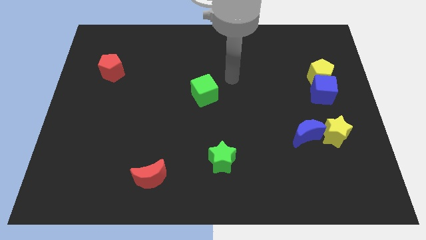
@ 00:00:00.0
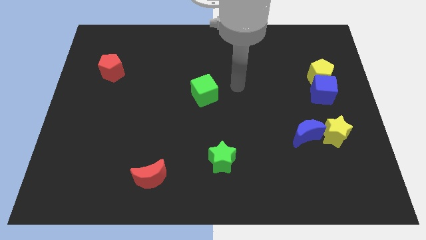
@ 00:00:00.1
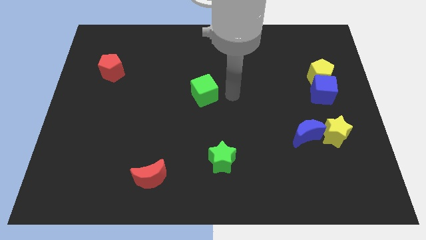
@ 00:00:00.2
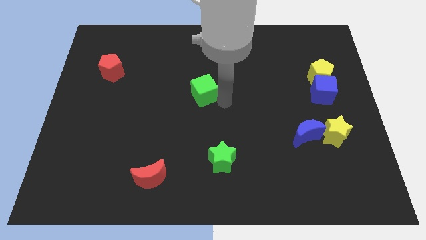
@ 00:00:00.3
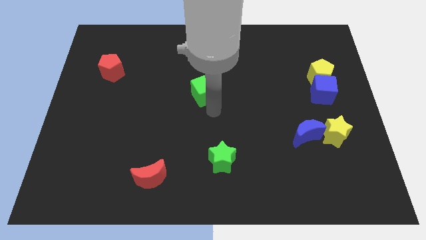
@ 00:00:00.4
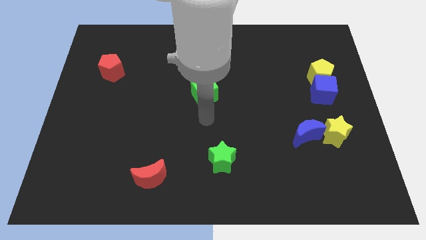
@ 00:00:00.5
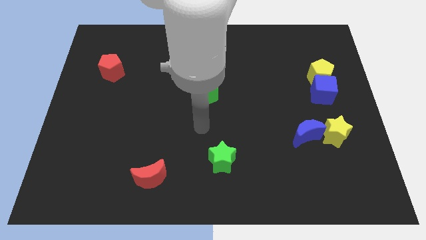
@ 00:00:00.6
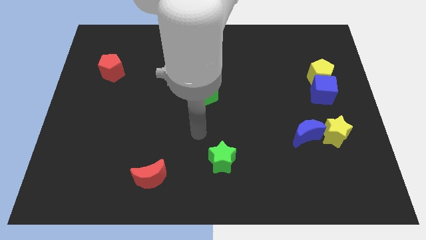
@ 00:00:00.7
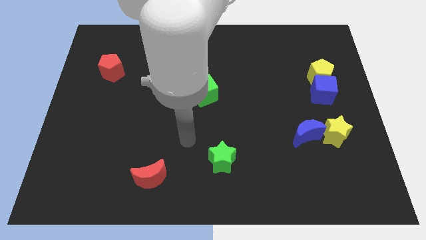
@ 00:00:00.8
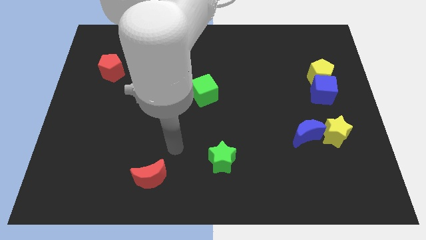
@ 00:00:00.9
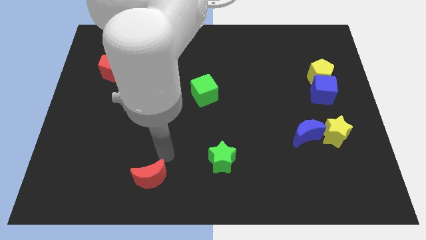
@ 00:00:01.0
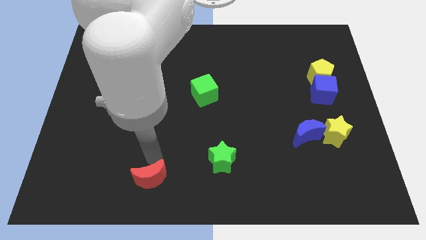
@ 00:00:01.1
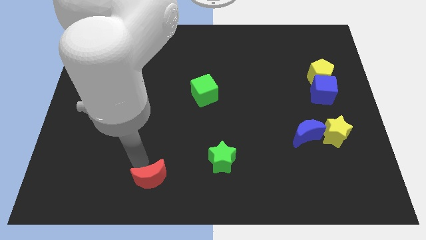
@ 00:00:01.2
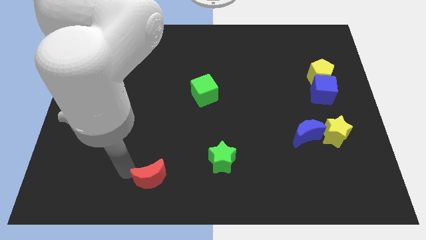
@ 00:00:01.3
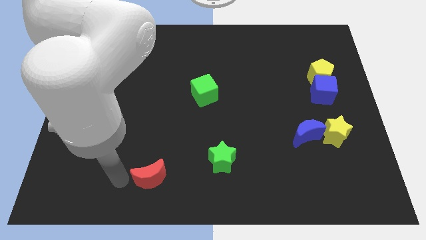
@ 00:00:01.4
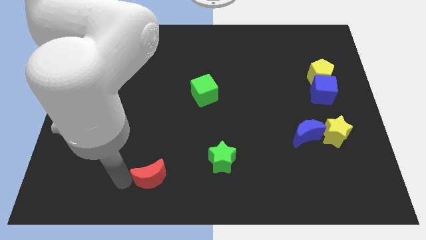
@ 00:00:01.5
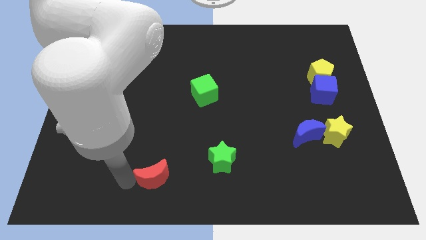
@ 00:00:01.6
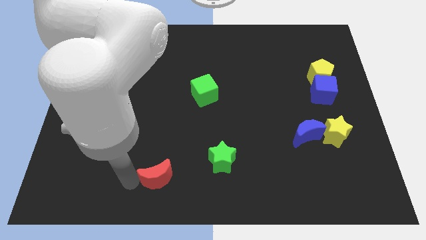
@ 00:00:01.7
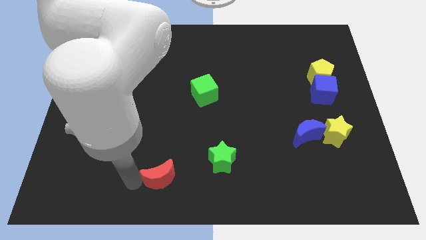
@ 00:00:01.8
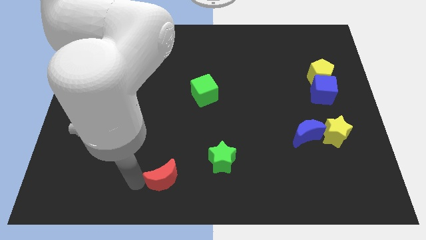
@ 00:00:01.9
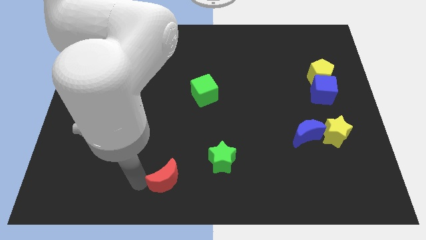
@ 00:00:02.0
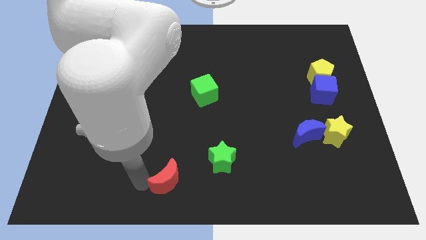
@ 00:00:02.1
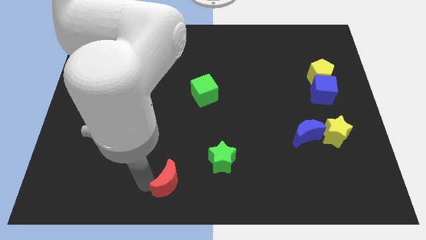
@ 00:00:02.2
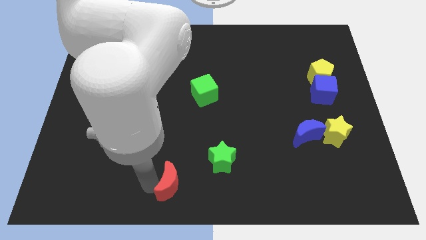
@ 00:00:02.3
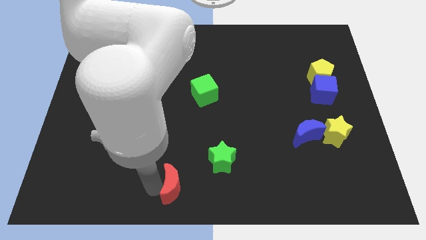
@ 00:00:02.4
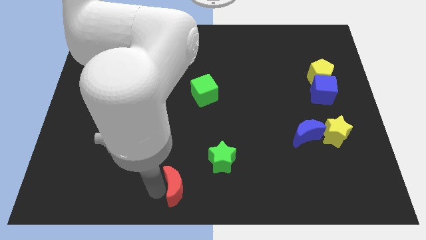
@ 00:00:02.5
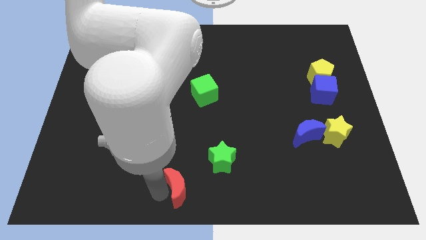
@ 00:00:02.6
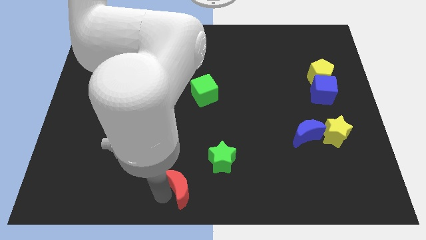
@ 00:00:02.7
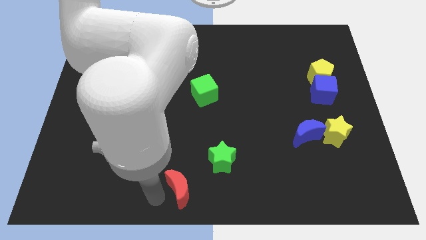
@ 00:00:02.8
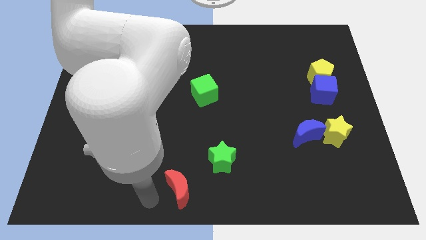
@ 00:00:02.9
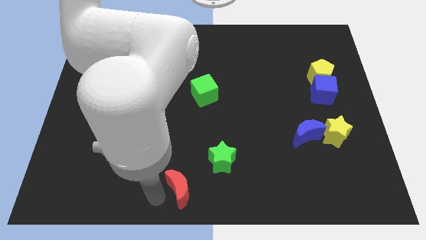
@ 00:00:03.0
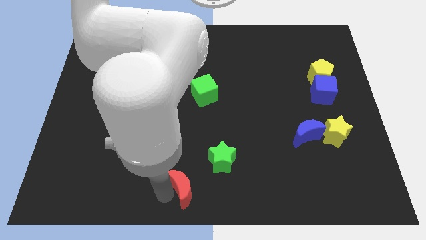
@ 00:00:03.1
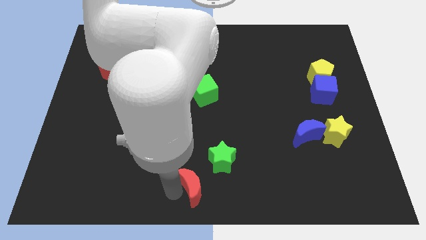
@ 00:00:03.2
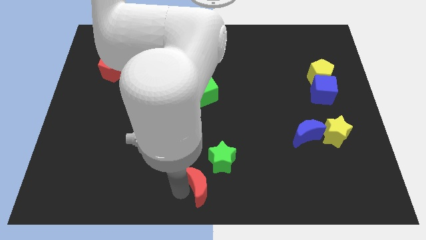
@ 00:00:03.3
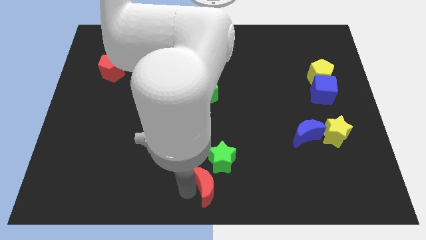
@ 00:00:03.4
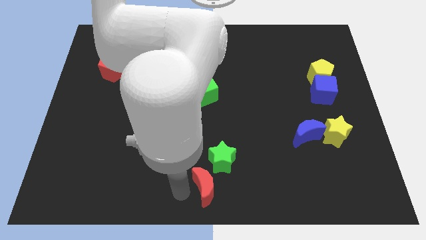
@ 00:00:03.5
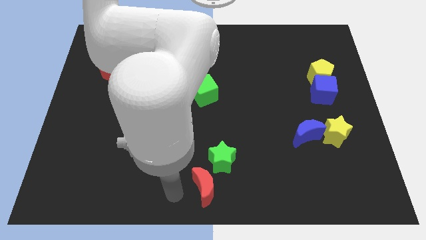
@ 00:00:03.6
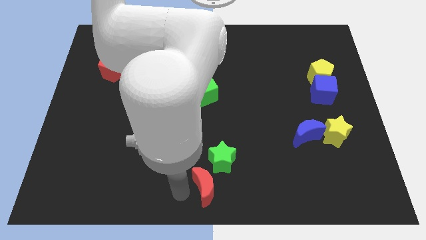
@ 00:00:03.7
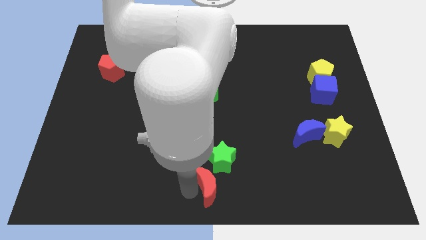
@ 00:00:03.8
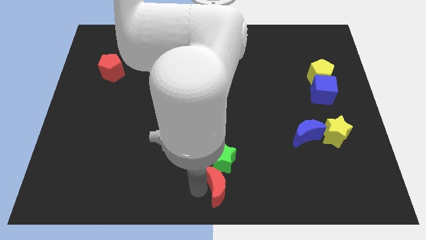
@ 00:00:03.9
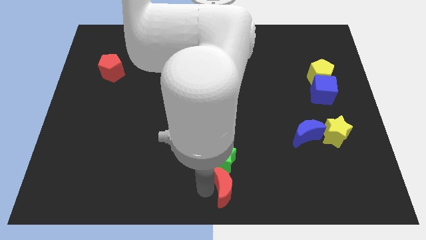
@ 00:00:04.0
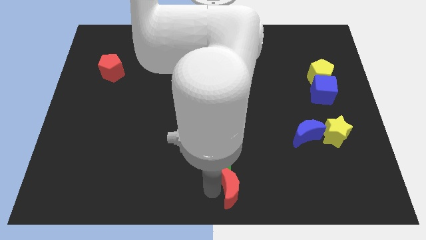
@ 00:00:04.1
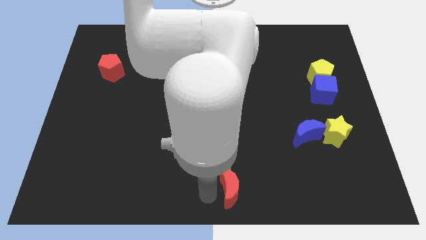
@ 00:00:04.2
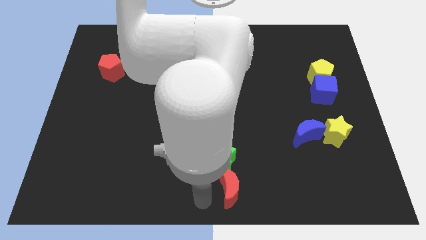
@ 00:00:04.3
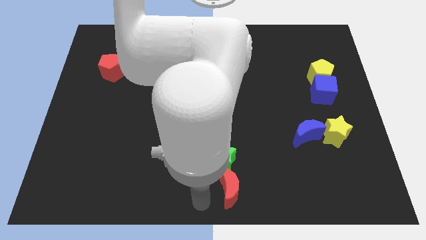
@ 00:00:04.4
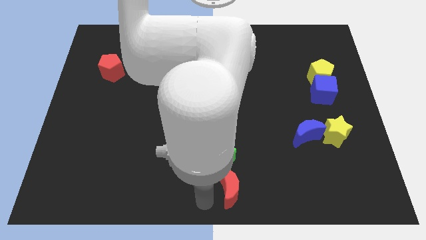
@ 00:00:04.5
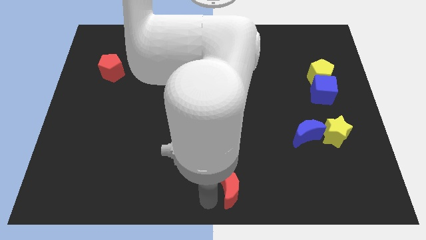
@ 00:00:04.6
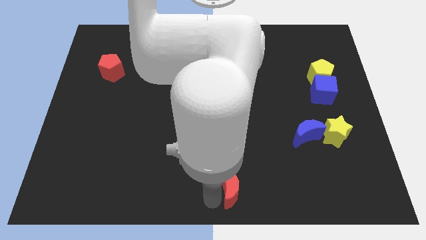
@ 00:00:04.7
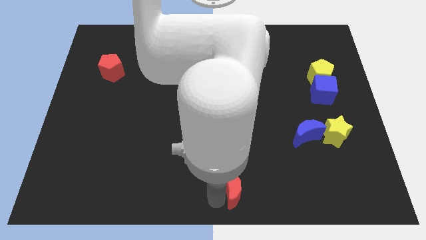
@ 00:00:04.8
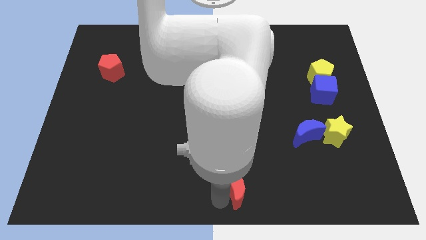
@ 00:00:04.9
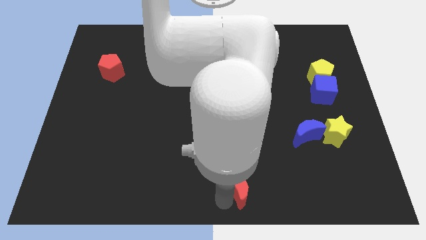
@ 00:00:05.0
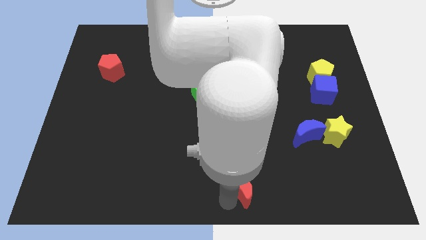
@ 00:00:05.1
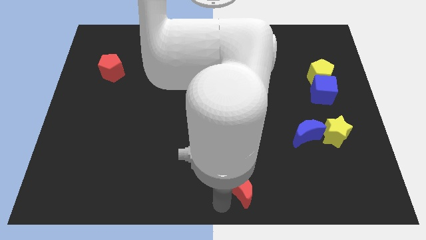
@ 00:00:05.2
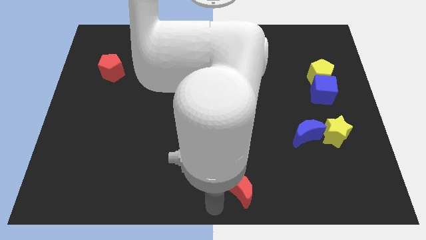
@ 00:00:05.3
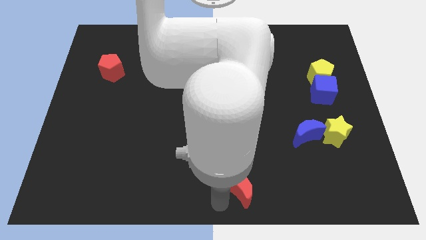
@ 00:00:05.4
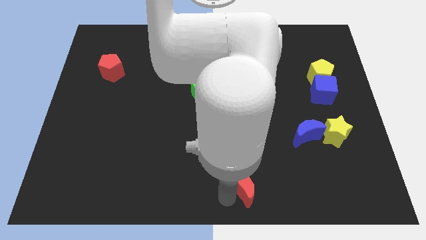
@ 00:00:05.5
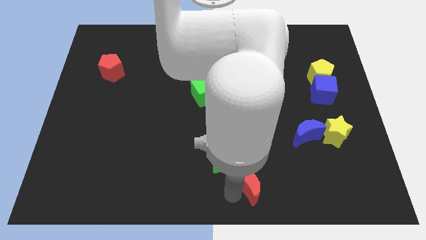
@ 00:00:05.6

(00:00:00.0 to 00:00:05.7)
move the red moon to the right

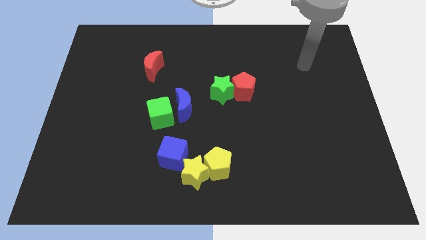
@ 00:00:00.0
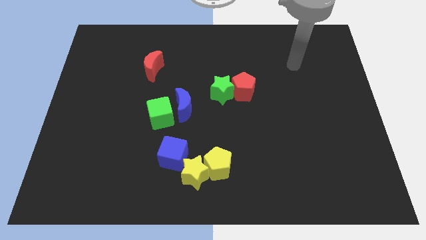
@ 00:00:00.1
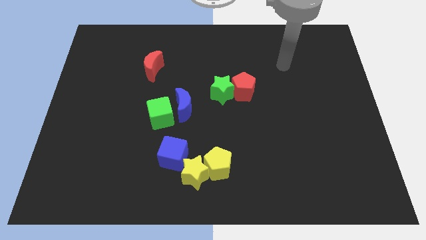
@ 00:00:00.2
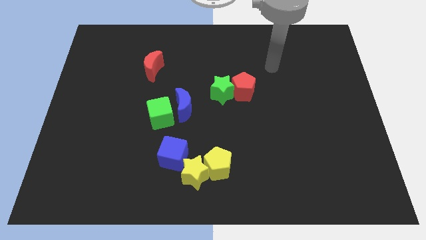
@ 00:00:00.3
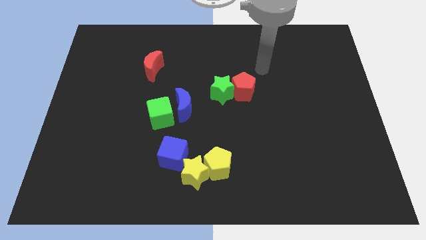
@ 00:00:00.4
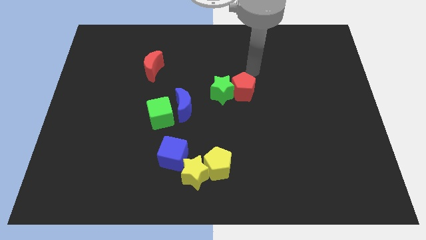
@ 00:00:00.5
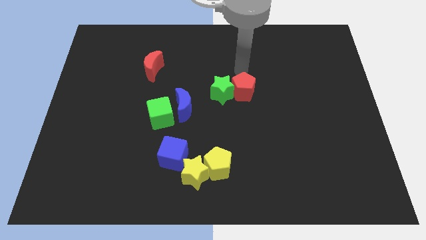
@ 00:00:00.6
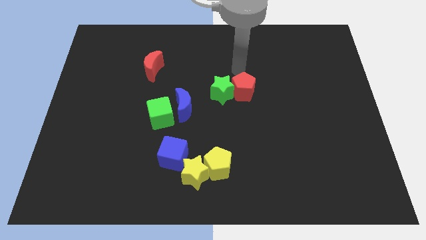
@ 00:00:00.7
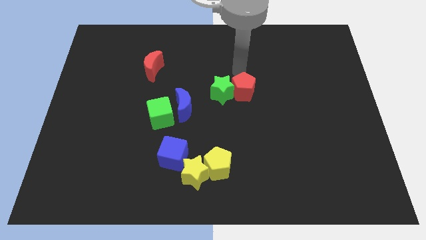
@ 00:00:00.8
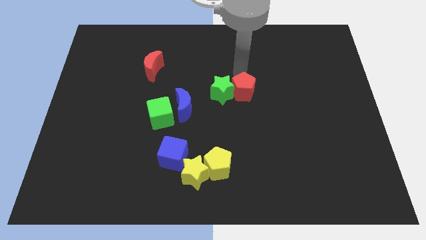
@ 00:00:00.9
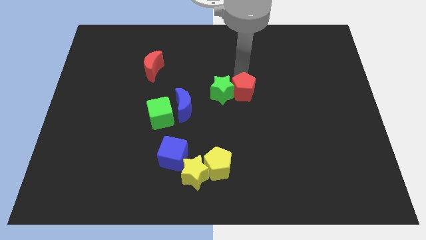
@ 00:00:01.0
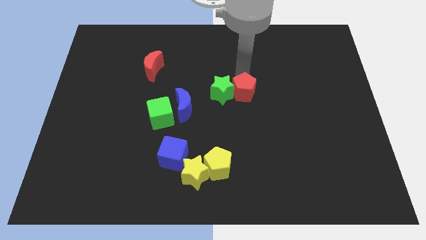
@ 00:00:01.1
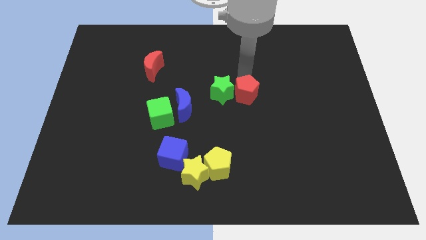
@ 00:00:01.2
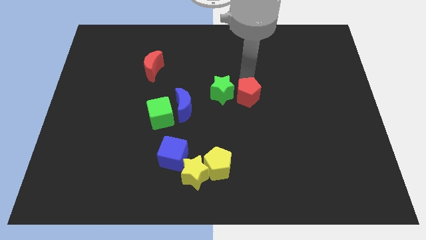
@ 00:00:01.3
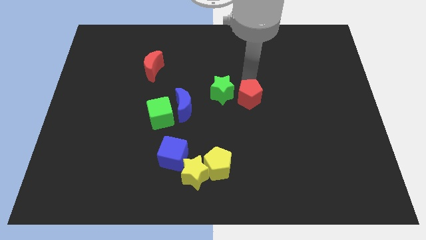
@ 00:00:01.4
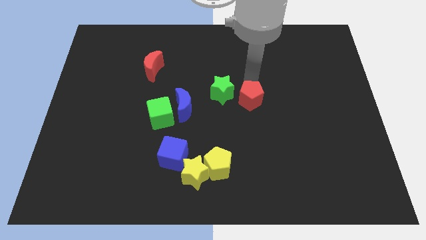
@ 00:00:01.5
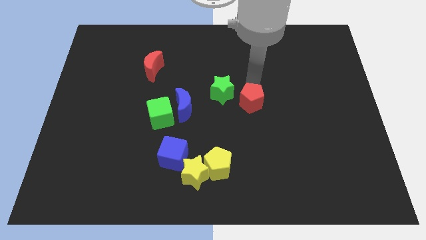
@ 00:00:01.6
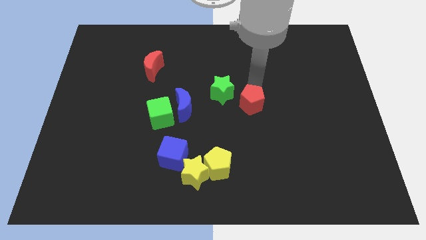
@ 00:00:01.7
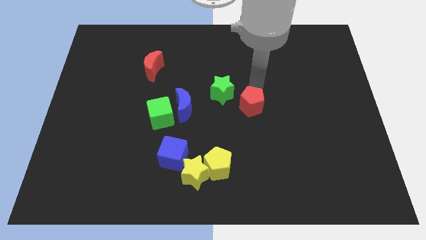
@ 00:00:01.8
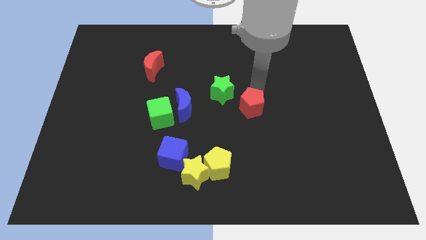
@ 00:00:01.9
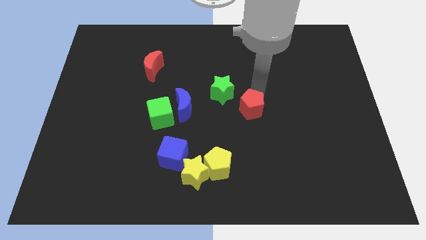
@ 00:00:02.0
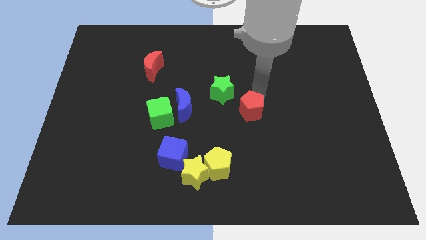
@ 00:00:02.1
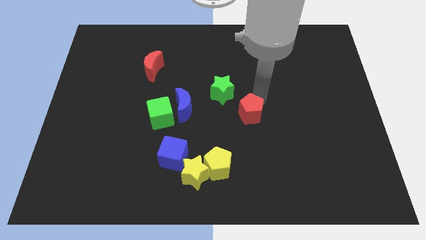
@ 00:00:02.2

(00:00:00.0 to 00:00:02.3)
push the red pentagon a little downwards

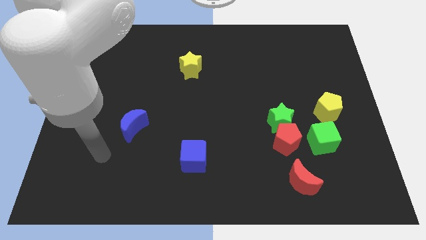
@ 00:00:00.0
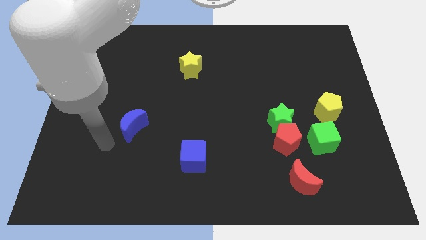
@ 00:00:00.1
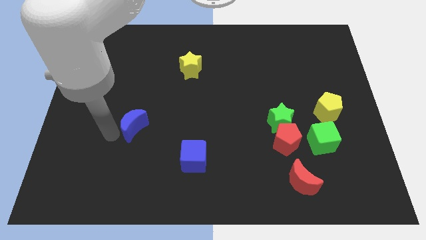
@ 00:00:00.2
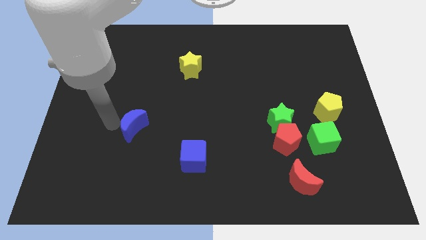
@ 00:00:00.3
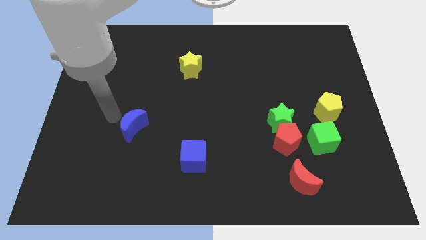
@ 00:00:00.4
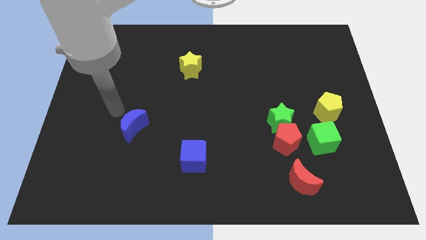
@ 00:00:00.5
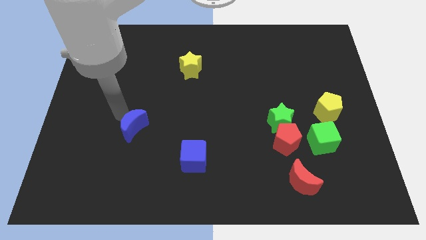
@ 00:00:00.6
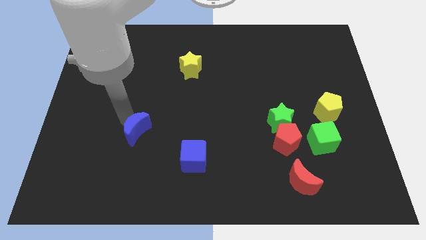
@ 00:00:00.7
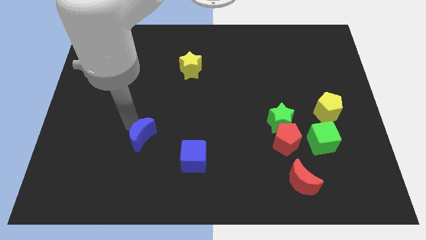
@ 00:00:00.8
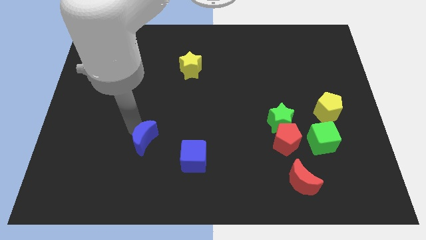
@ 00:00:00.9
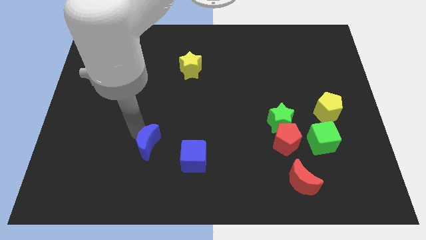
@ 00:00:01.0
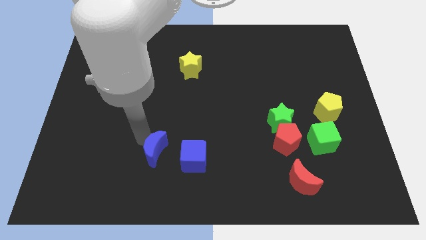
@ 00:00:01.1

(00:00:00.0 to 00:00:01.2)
slightly slide the blue moon downwards and right diagonally
